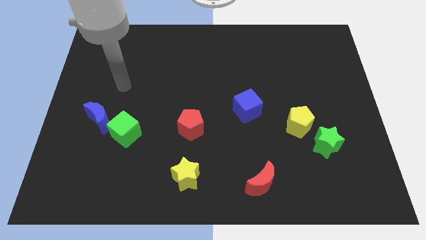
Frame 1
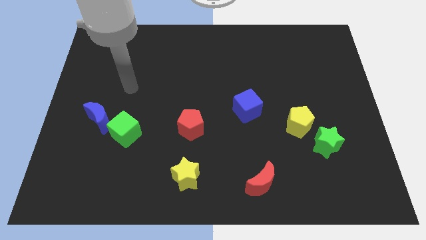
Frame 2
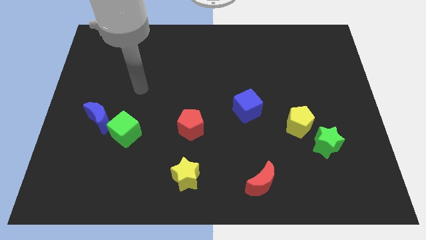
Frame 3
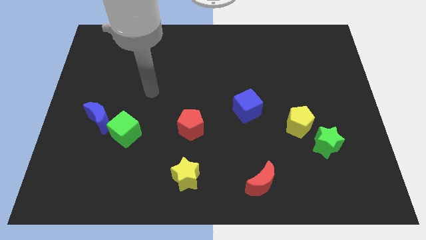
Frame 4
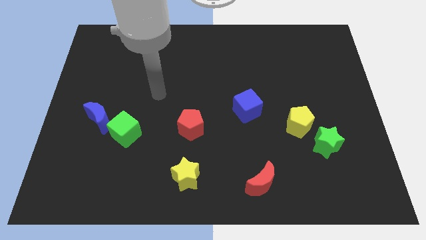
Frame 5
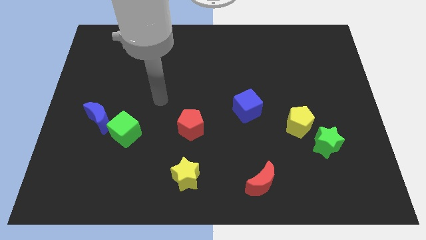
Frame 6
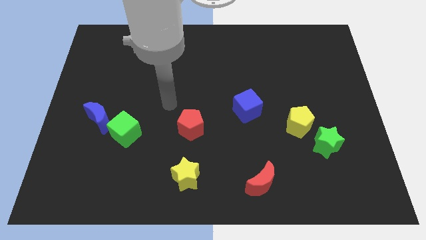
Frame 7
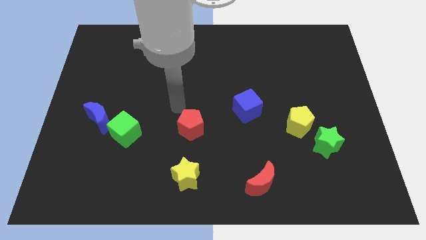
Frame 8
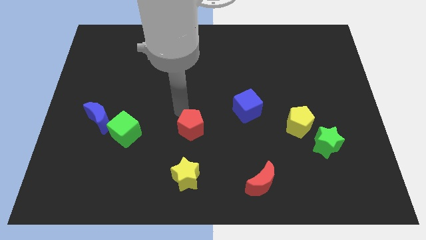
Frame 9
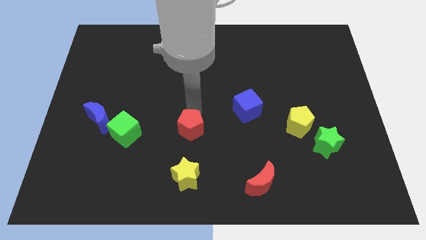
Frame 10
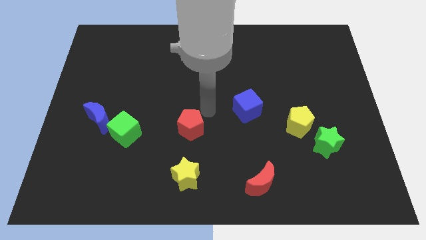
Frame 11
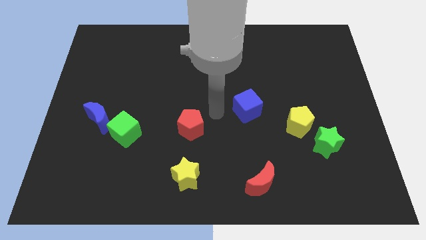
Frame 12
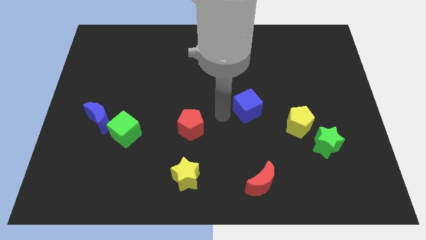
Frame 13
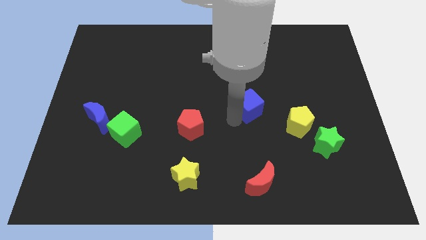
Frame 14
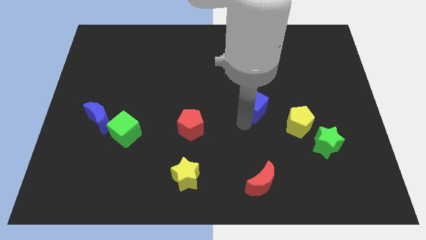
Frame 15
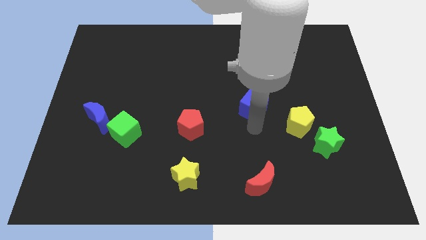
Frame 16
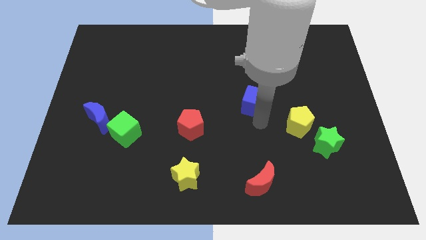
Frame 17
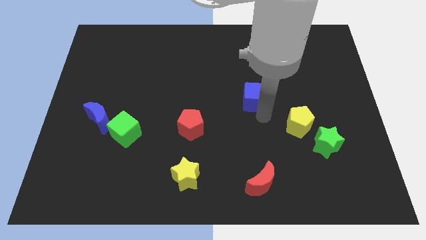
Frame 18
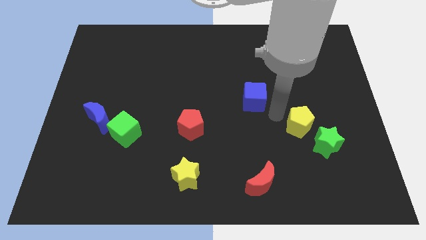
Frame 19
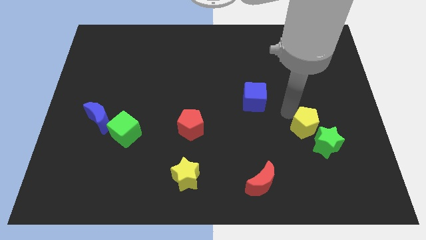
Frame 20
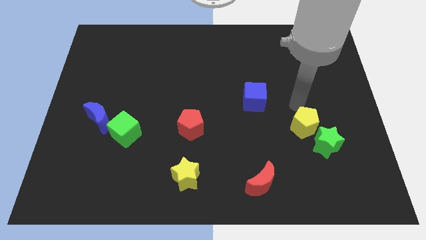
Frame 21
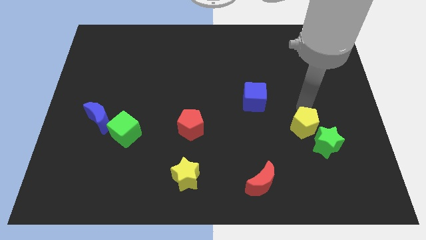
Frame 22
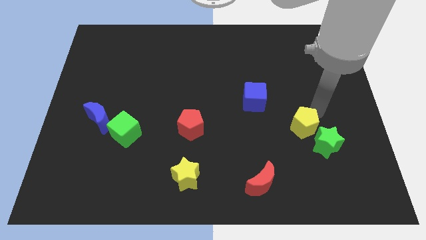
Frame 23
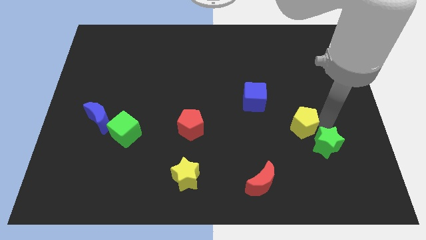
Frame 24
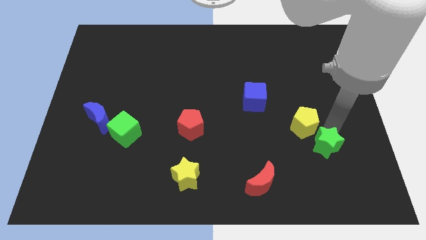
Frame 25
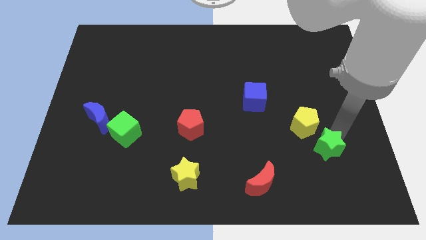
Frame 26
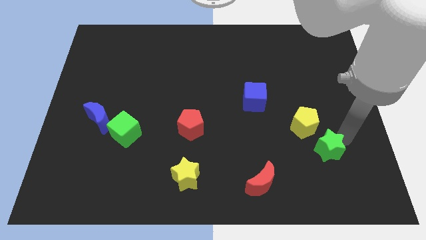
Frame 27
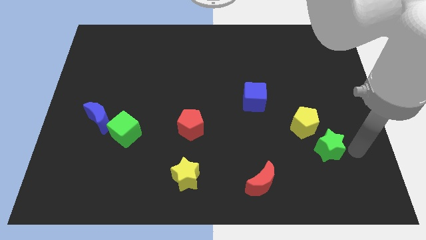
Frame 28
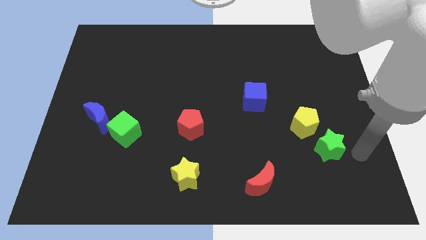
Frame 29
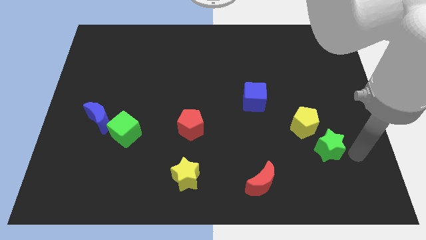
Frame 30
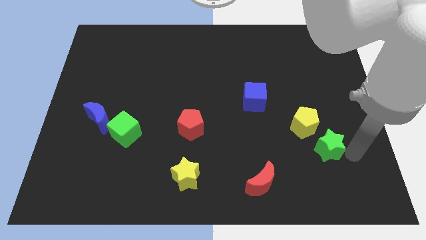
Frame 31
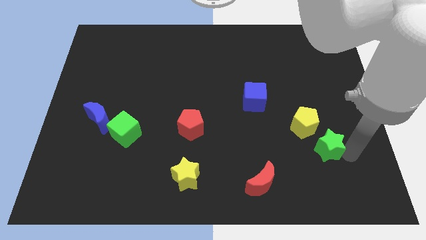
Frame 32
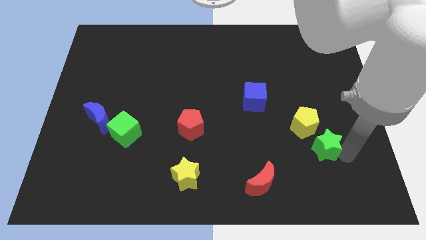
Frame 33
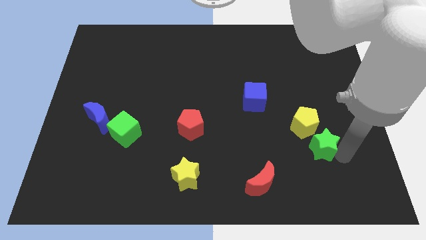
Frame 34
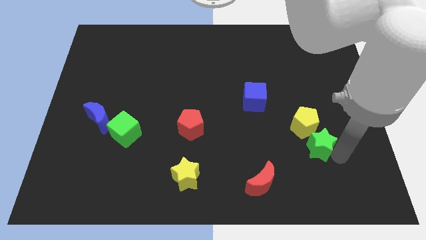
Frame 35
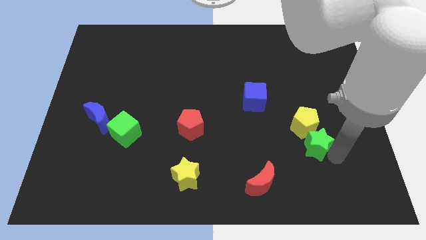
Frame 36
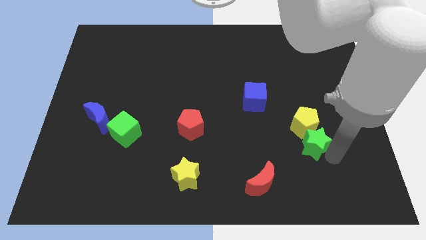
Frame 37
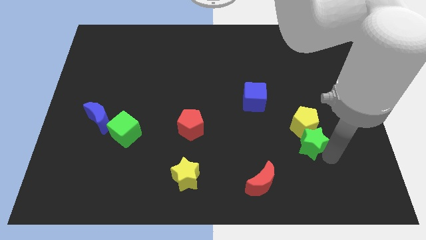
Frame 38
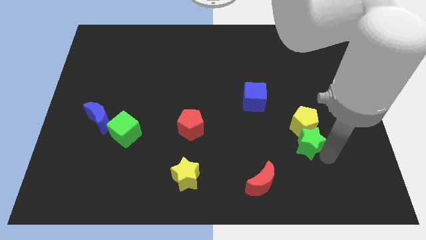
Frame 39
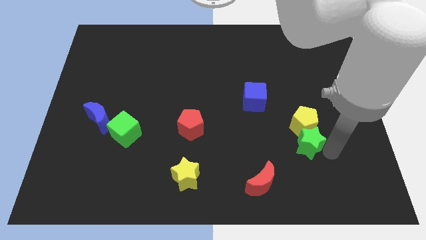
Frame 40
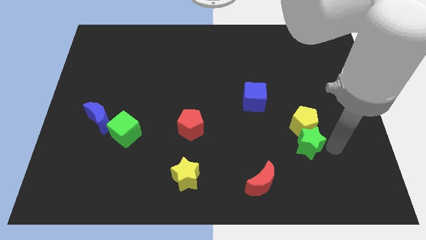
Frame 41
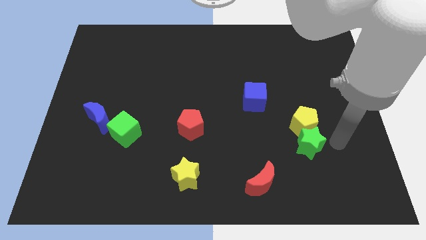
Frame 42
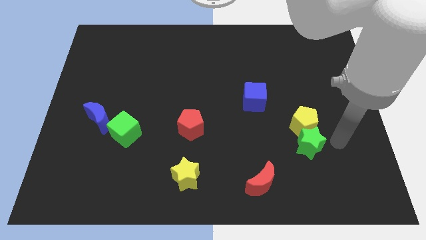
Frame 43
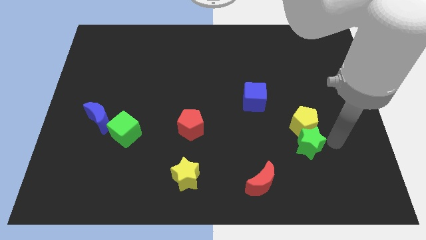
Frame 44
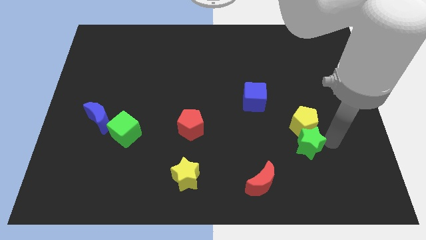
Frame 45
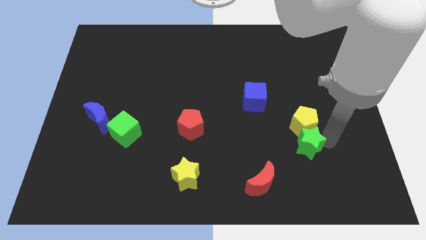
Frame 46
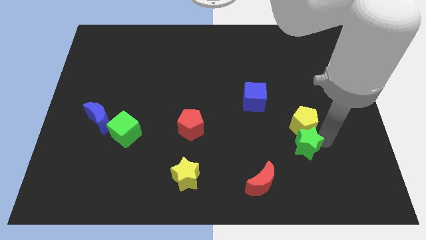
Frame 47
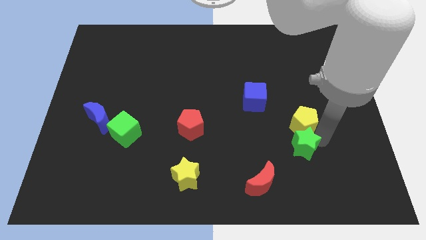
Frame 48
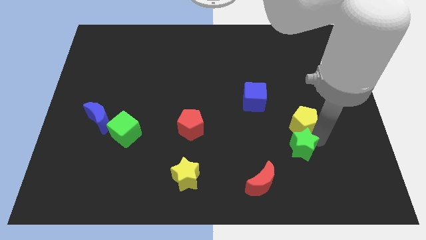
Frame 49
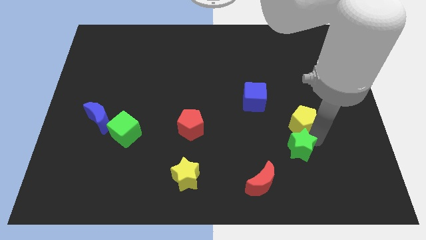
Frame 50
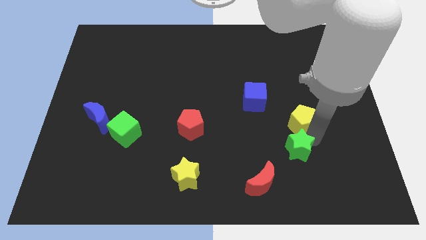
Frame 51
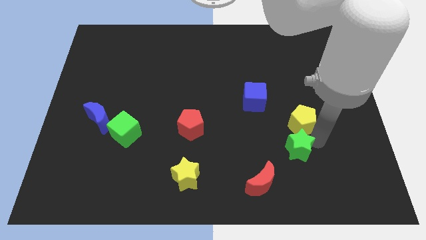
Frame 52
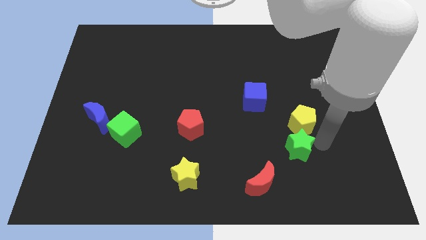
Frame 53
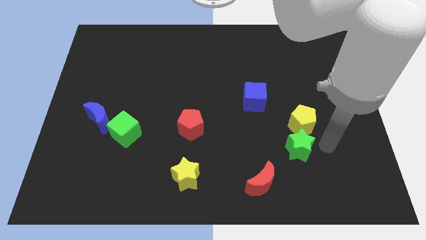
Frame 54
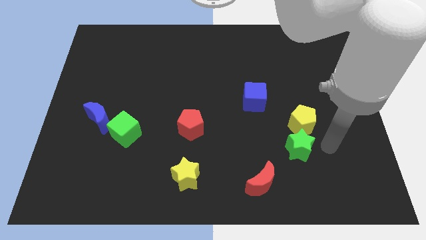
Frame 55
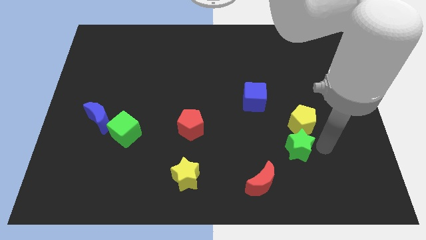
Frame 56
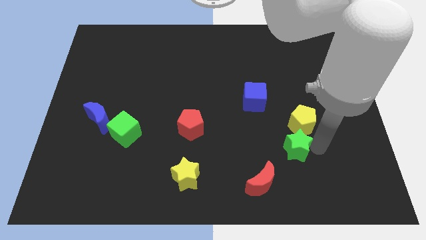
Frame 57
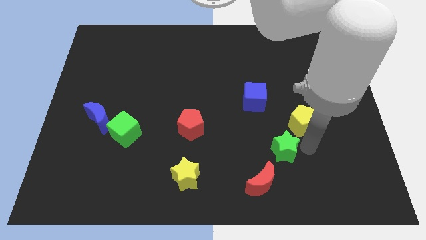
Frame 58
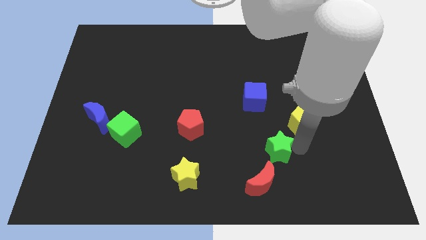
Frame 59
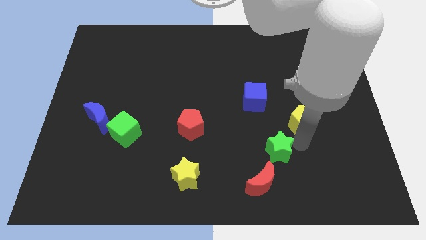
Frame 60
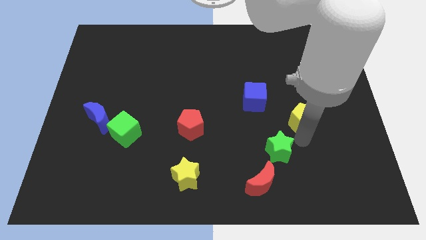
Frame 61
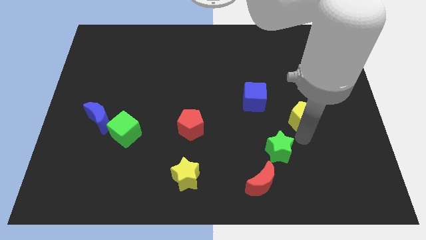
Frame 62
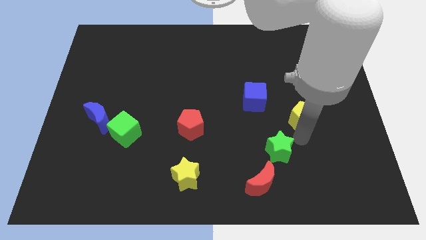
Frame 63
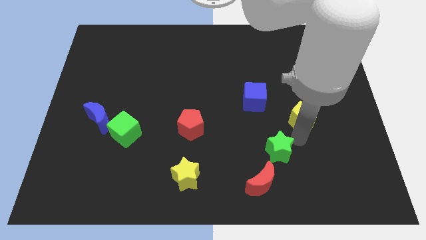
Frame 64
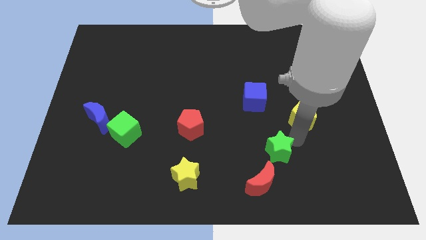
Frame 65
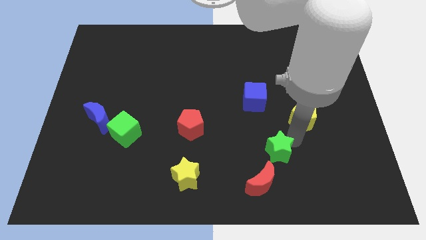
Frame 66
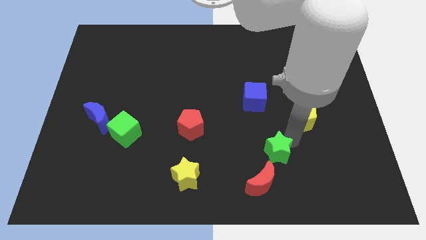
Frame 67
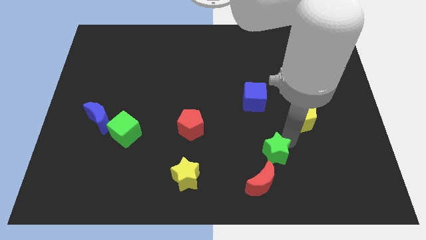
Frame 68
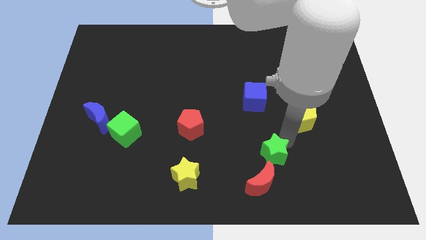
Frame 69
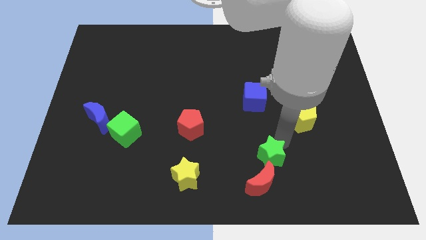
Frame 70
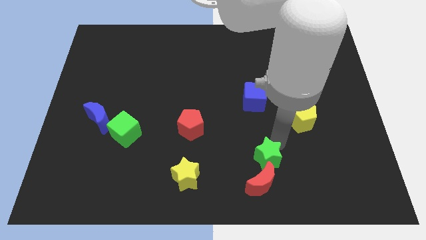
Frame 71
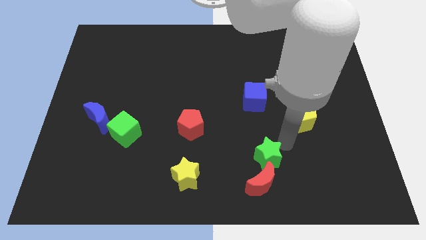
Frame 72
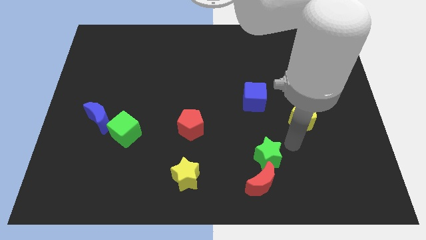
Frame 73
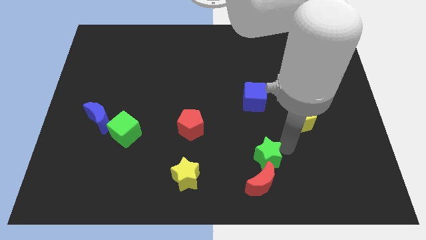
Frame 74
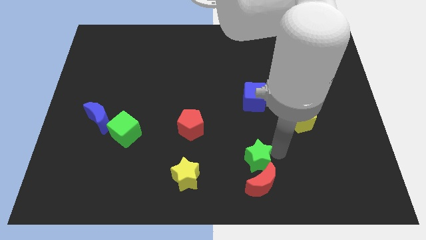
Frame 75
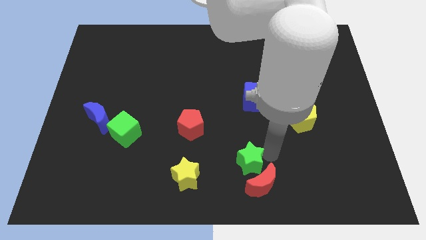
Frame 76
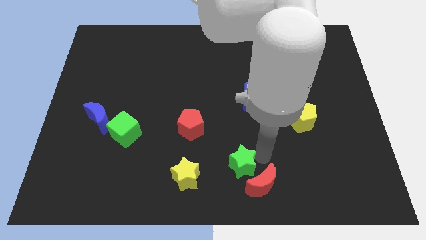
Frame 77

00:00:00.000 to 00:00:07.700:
put the green star left of the red moon
